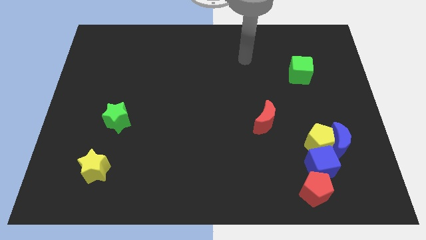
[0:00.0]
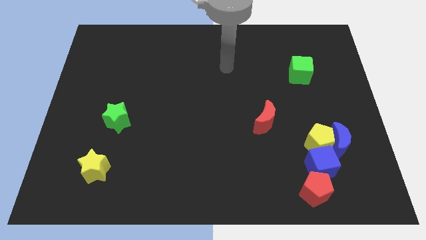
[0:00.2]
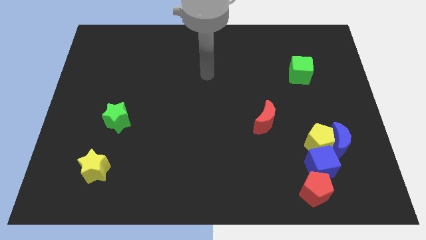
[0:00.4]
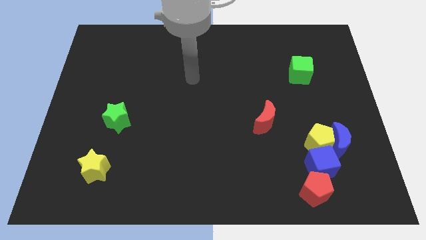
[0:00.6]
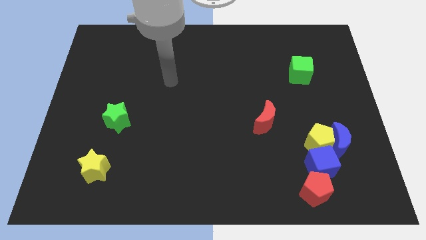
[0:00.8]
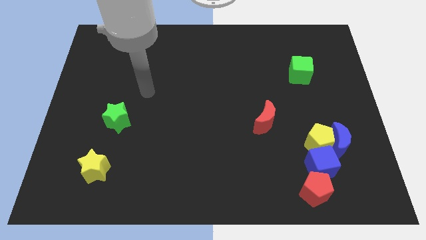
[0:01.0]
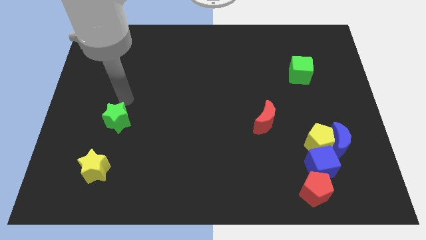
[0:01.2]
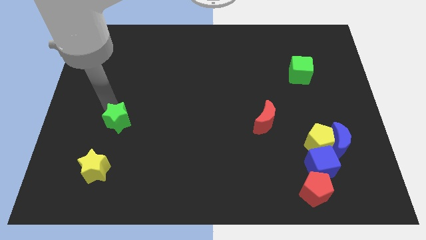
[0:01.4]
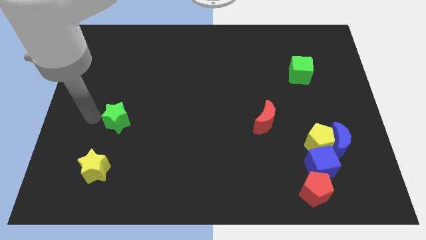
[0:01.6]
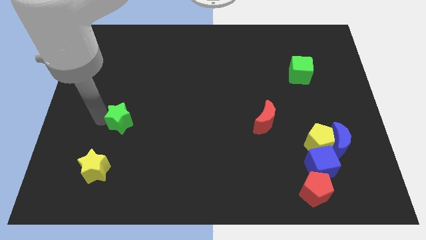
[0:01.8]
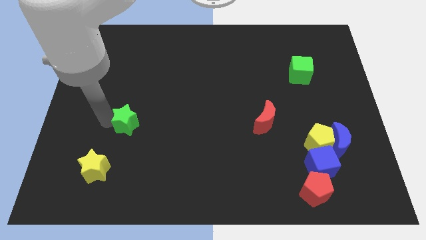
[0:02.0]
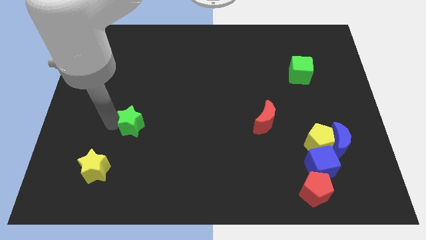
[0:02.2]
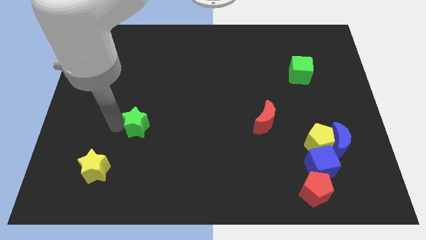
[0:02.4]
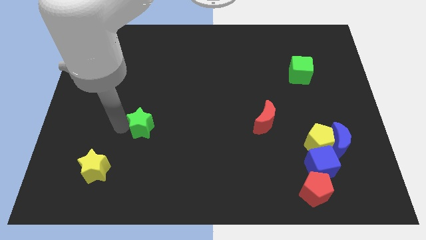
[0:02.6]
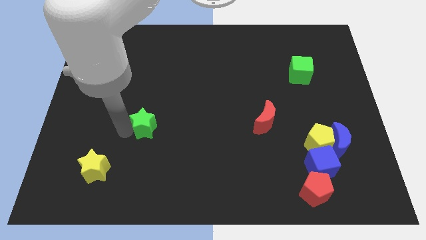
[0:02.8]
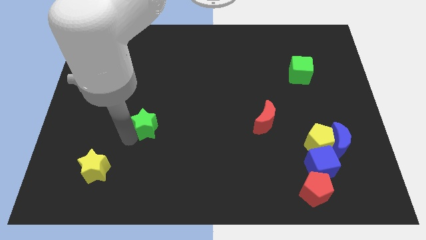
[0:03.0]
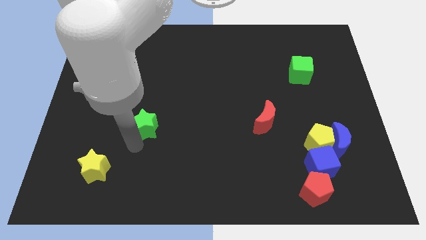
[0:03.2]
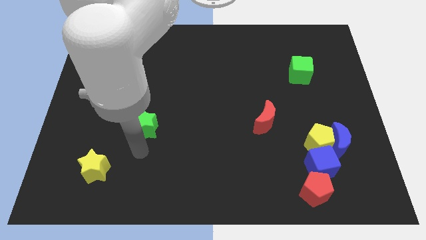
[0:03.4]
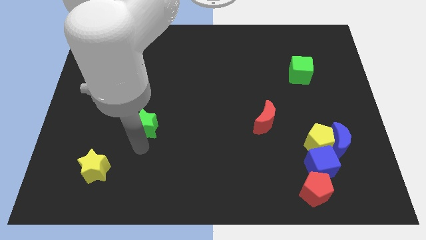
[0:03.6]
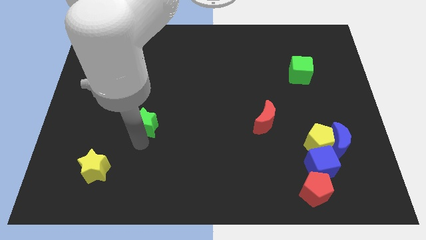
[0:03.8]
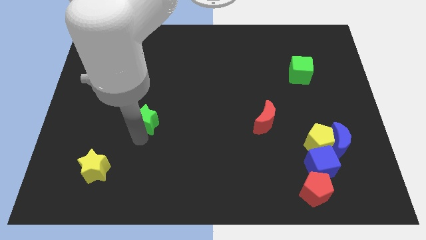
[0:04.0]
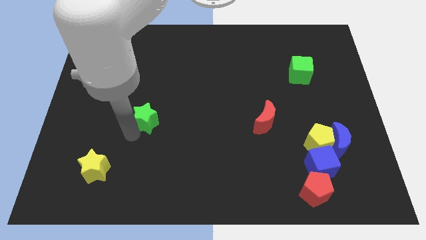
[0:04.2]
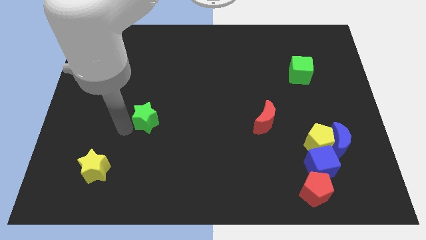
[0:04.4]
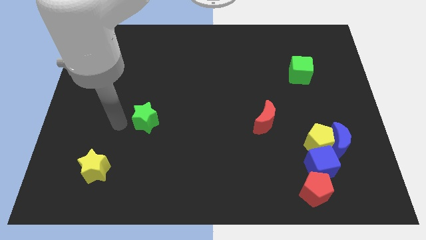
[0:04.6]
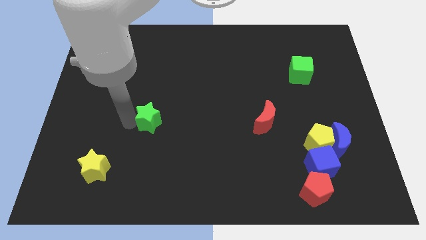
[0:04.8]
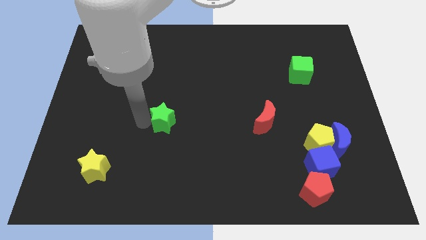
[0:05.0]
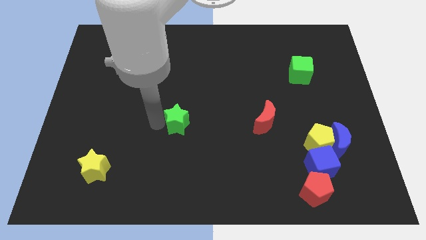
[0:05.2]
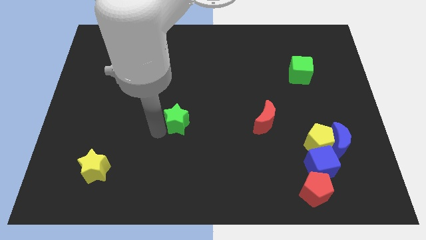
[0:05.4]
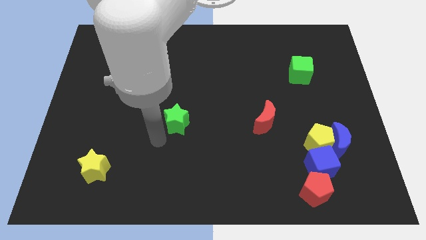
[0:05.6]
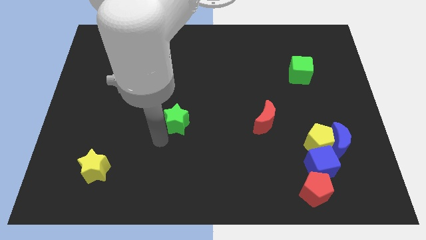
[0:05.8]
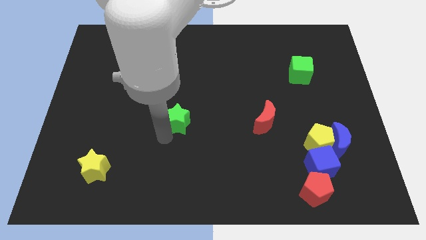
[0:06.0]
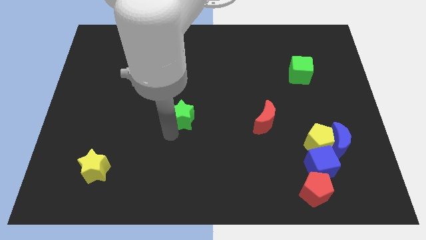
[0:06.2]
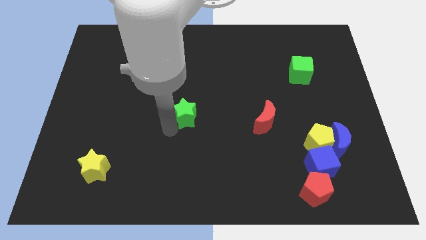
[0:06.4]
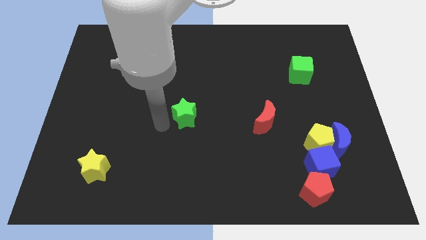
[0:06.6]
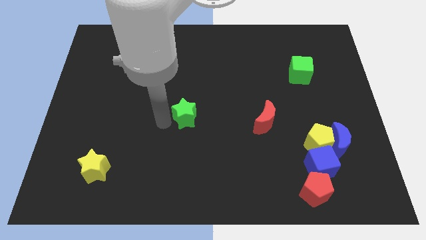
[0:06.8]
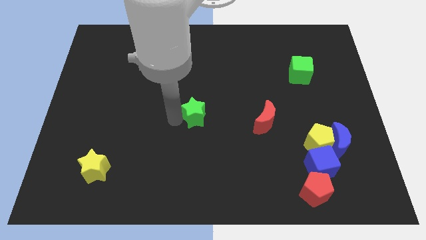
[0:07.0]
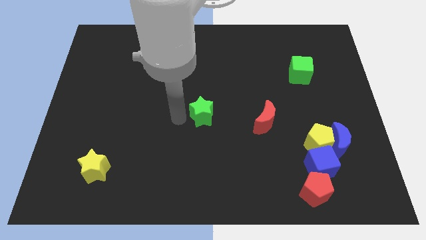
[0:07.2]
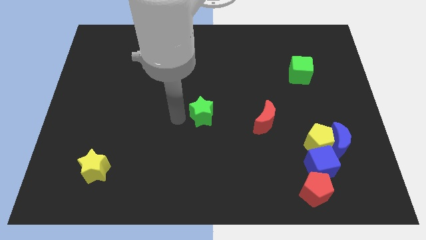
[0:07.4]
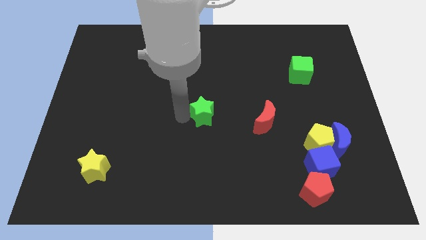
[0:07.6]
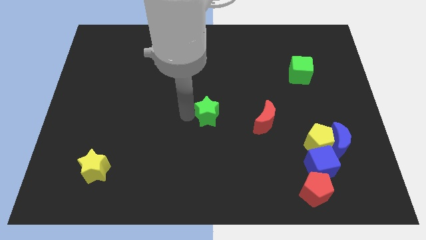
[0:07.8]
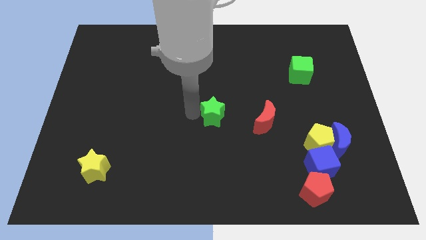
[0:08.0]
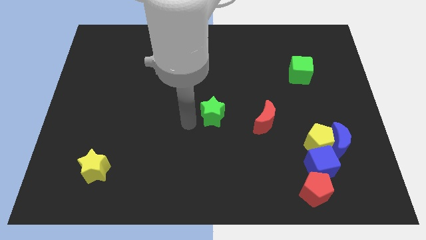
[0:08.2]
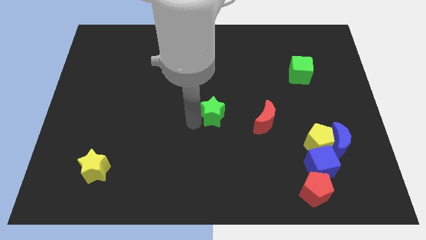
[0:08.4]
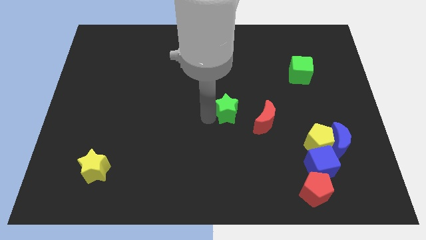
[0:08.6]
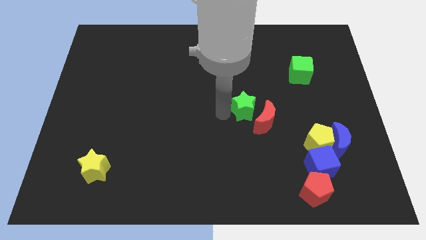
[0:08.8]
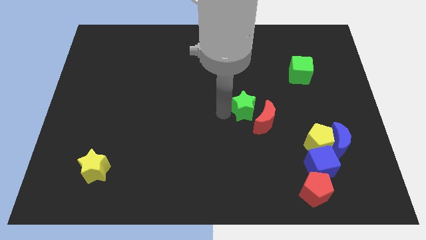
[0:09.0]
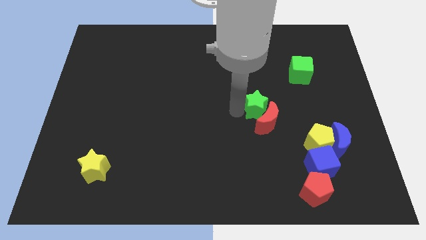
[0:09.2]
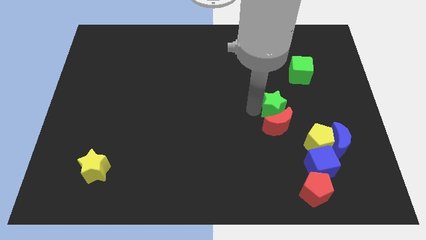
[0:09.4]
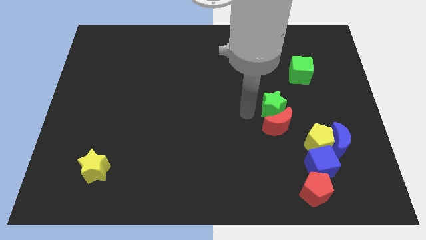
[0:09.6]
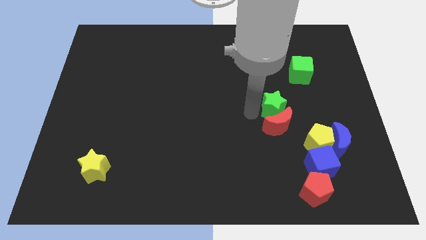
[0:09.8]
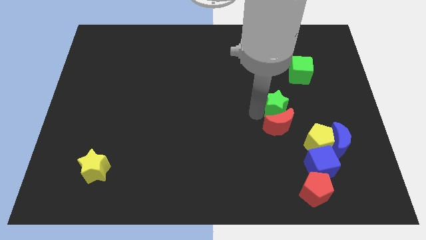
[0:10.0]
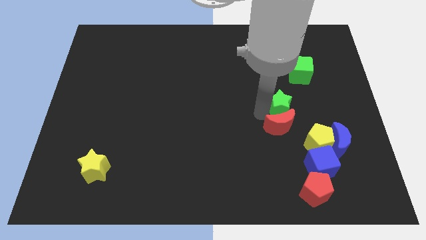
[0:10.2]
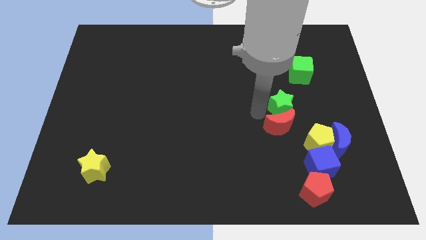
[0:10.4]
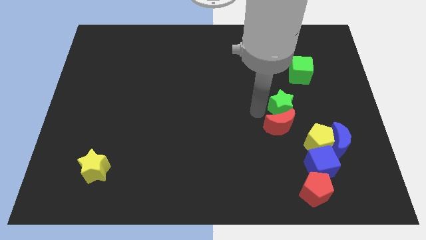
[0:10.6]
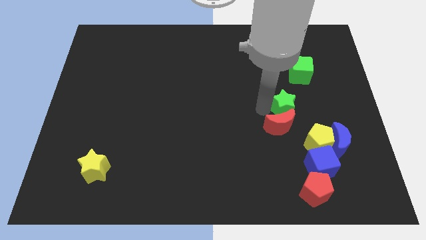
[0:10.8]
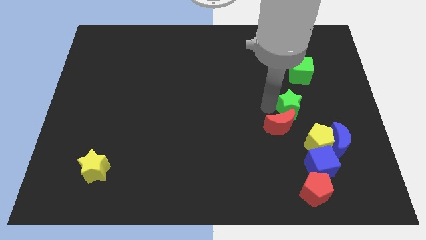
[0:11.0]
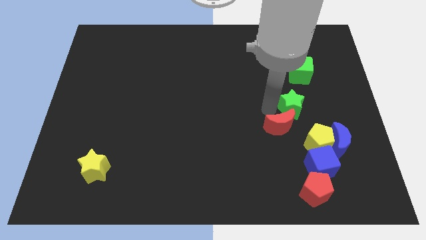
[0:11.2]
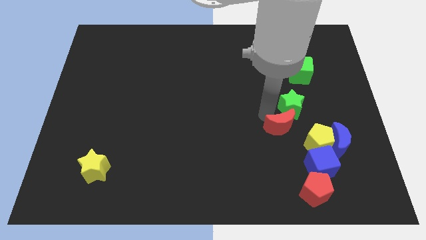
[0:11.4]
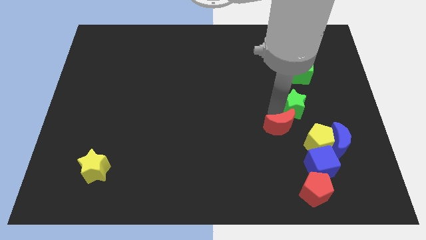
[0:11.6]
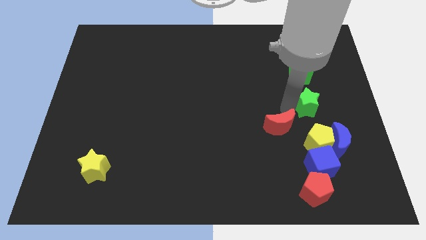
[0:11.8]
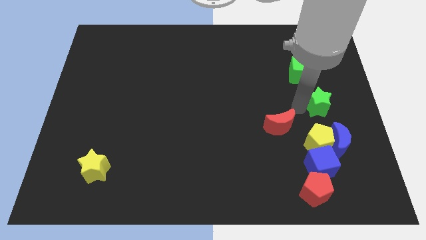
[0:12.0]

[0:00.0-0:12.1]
put the green star to the right side

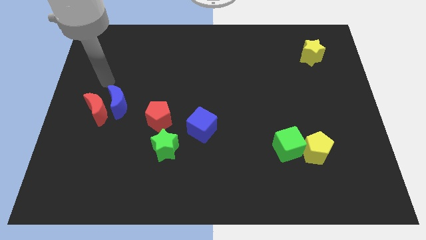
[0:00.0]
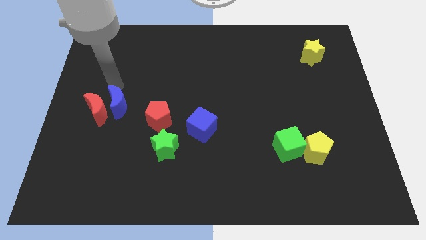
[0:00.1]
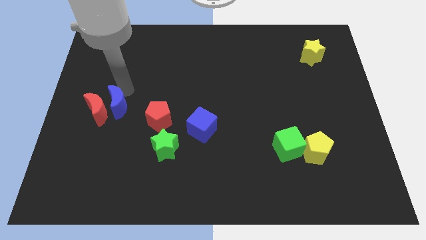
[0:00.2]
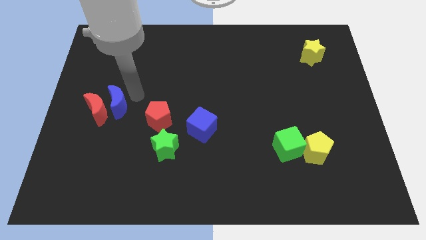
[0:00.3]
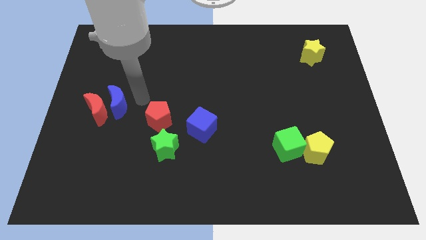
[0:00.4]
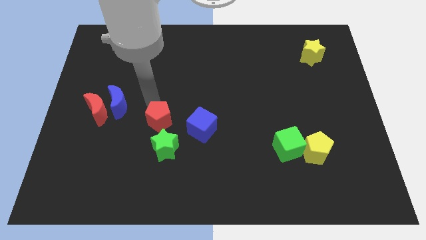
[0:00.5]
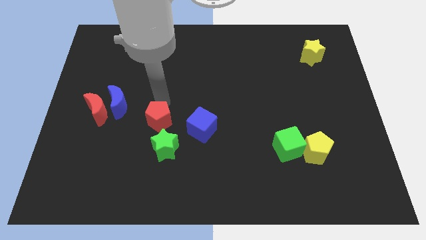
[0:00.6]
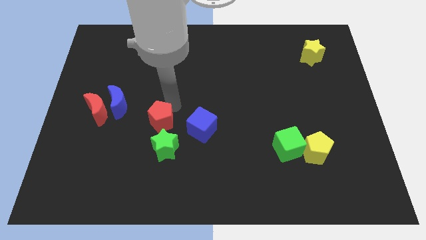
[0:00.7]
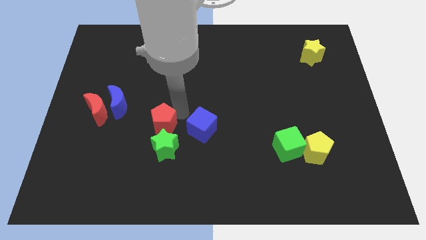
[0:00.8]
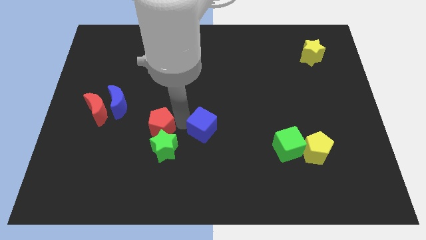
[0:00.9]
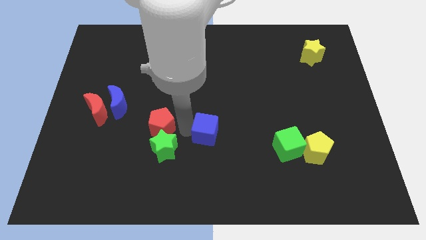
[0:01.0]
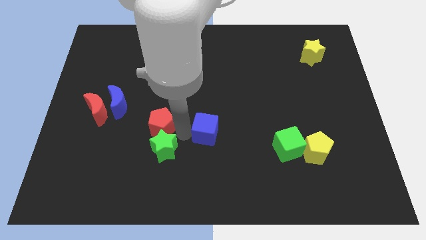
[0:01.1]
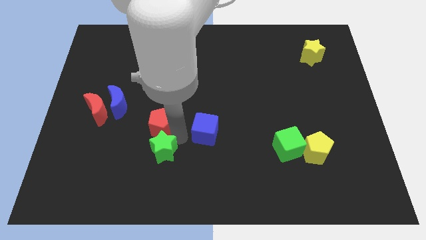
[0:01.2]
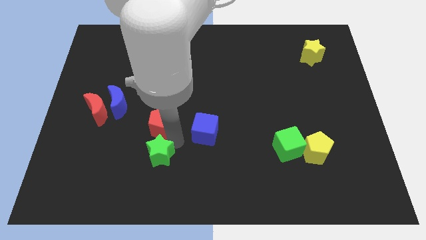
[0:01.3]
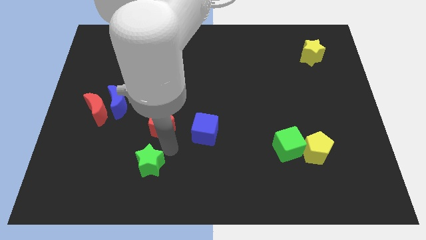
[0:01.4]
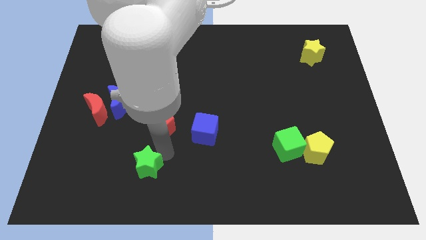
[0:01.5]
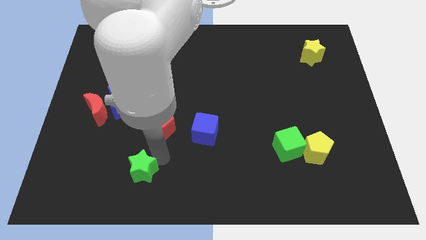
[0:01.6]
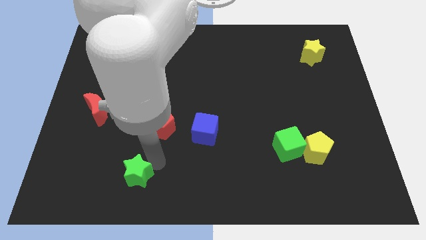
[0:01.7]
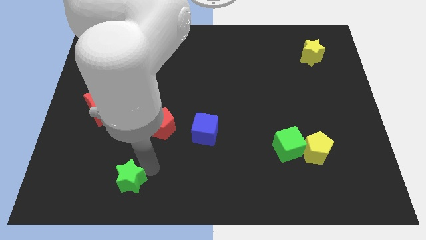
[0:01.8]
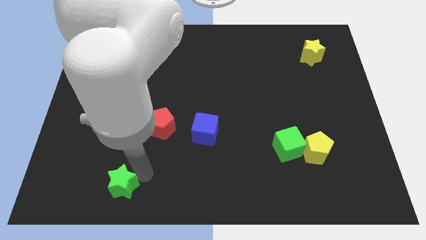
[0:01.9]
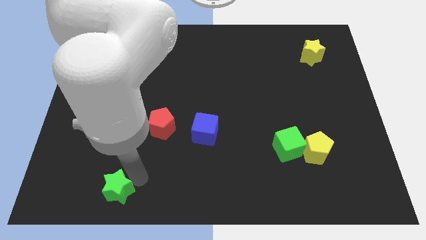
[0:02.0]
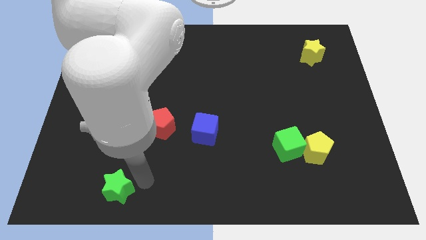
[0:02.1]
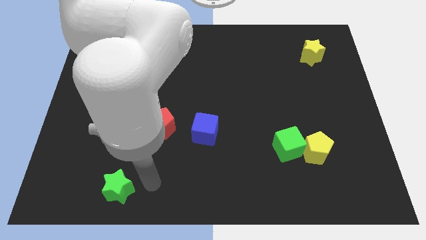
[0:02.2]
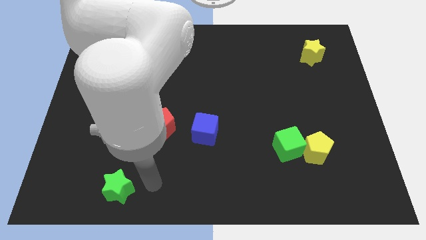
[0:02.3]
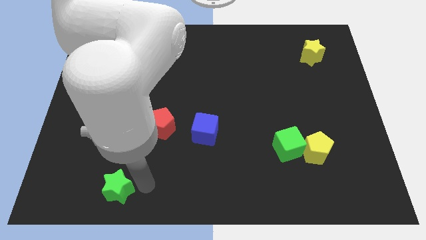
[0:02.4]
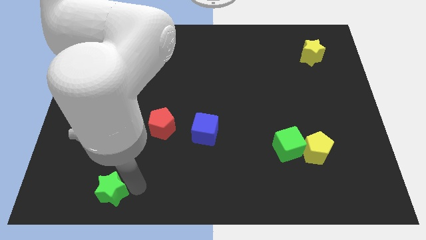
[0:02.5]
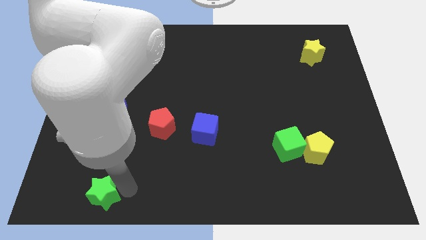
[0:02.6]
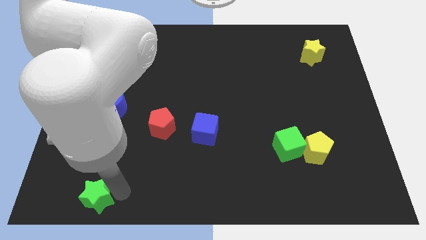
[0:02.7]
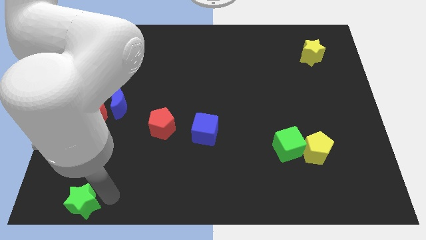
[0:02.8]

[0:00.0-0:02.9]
slide the green star to the bottom left
